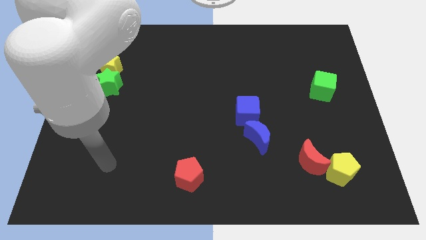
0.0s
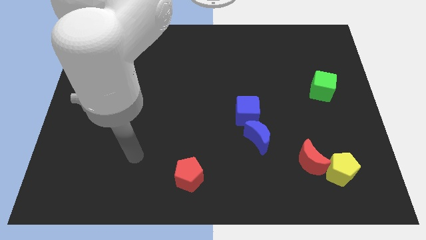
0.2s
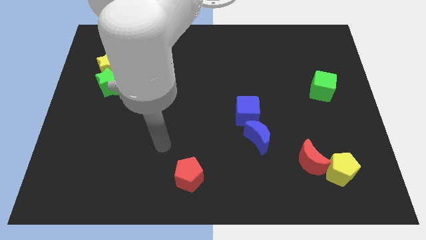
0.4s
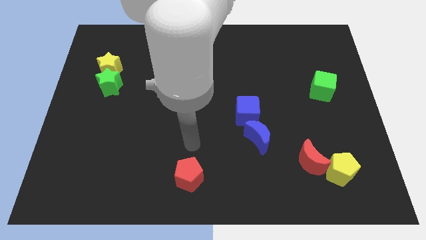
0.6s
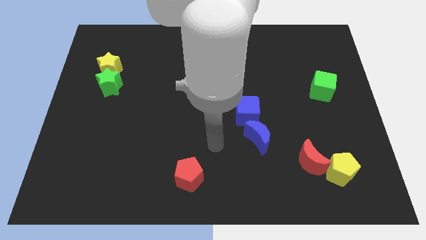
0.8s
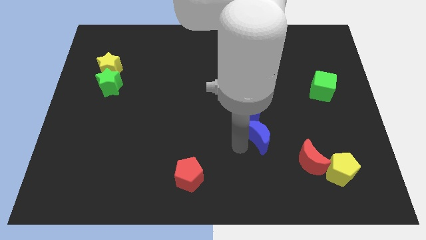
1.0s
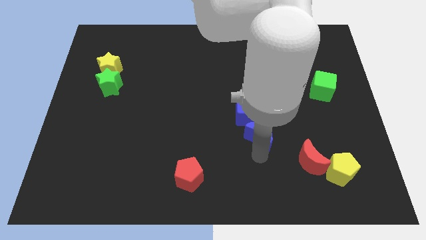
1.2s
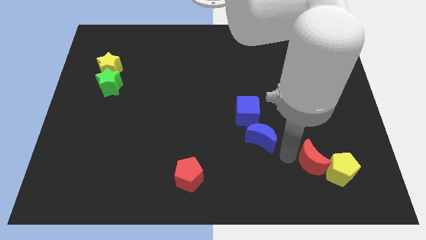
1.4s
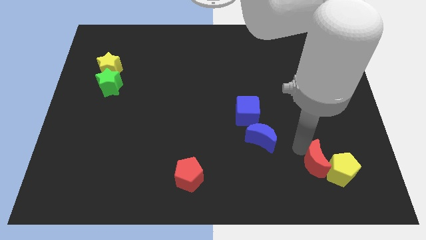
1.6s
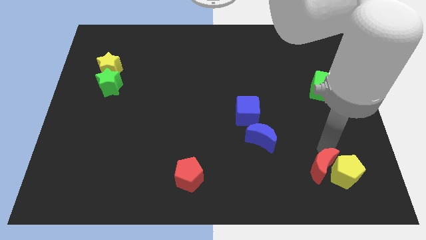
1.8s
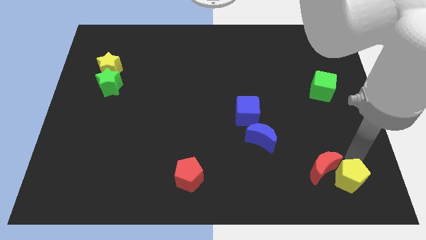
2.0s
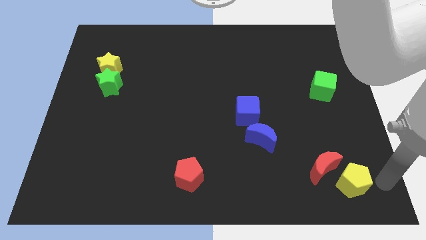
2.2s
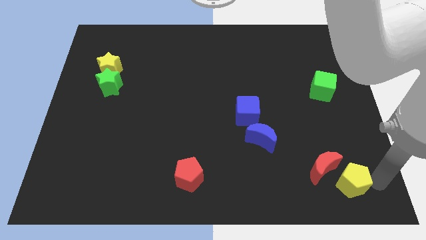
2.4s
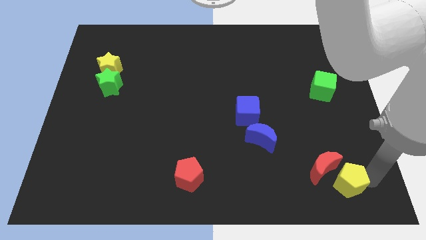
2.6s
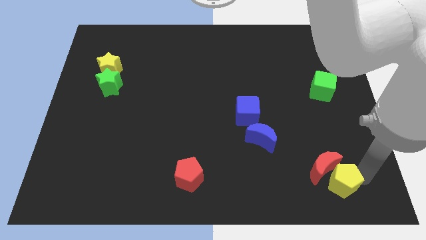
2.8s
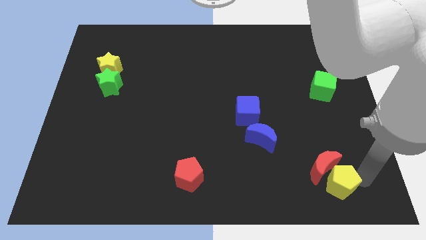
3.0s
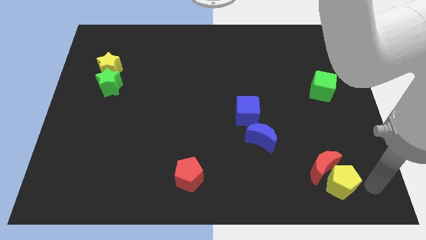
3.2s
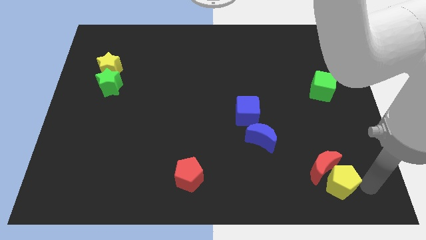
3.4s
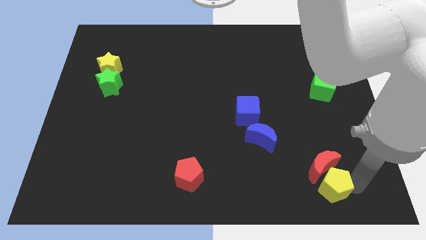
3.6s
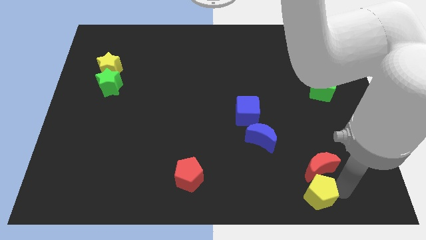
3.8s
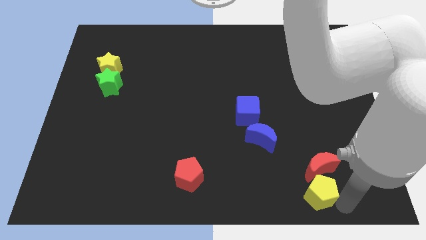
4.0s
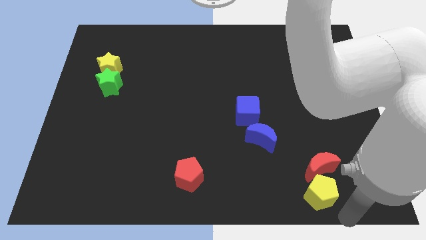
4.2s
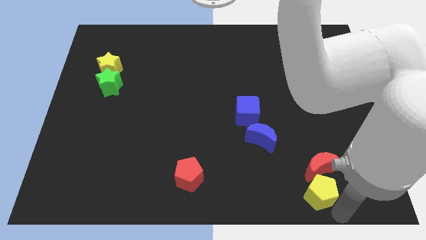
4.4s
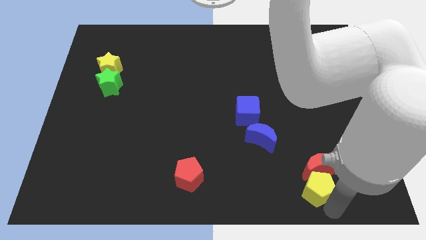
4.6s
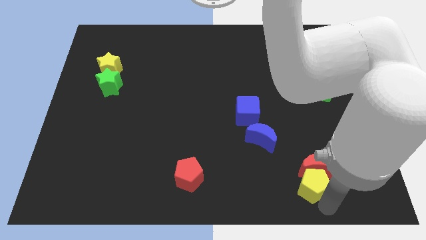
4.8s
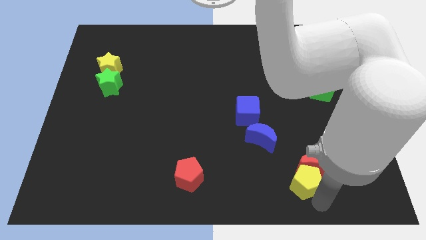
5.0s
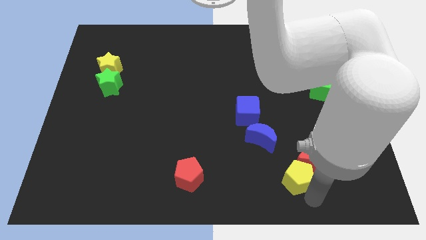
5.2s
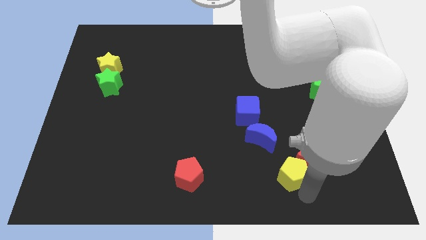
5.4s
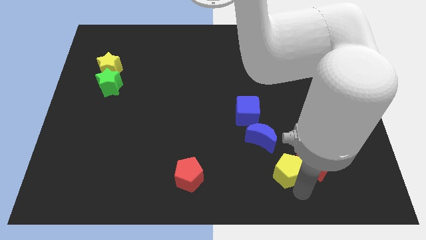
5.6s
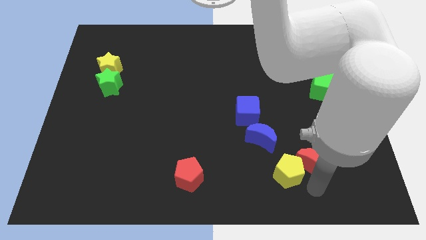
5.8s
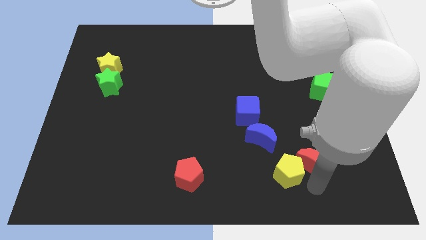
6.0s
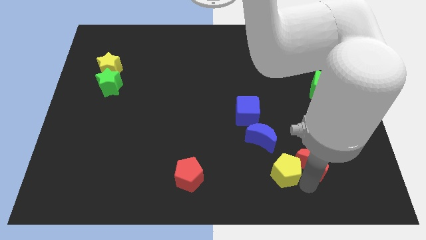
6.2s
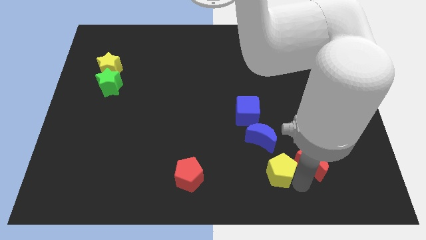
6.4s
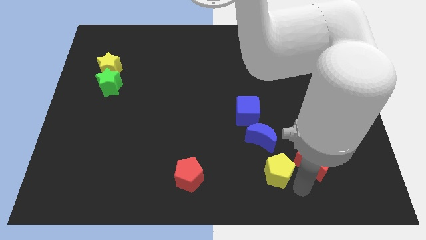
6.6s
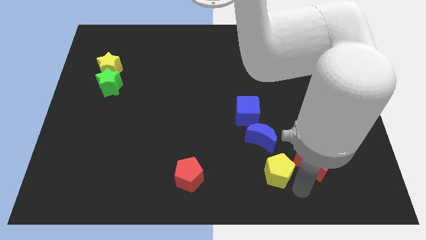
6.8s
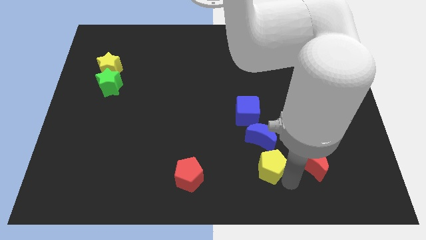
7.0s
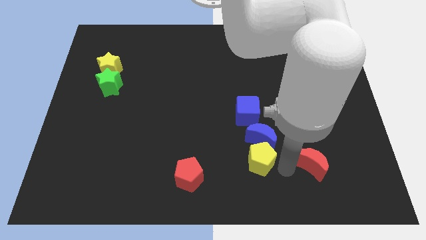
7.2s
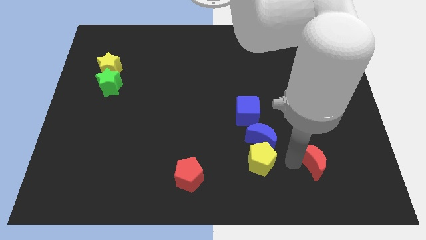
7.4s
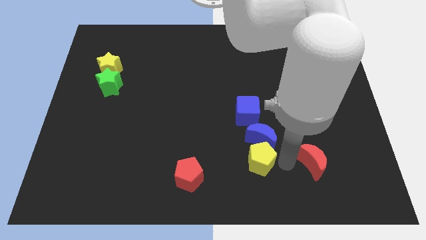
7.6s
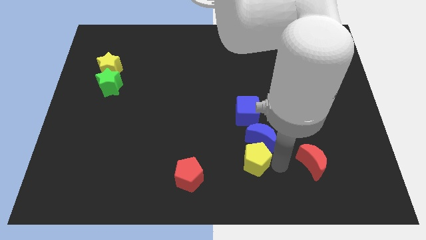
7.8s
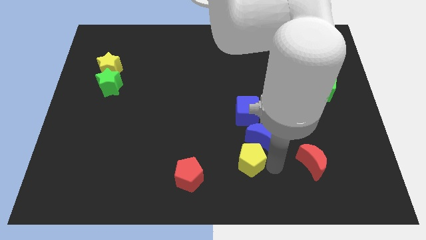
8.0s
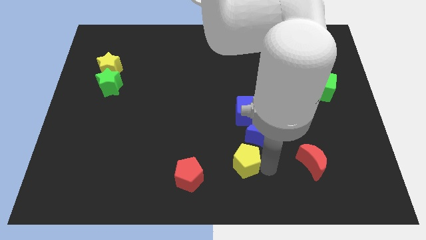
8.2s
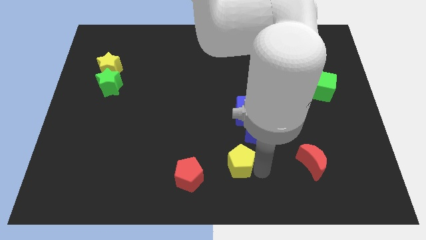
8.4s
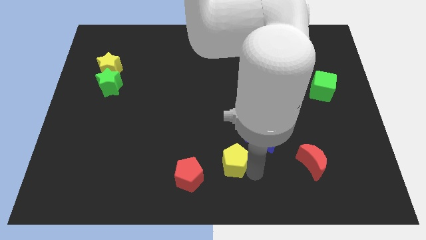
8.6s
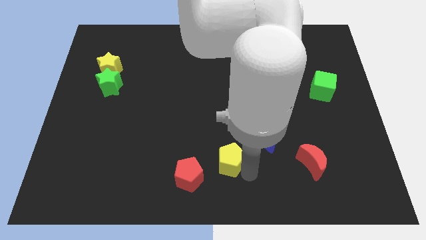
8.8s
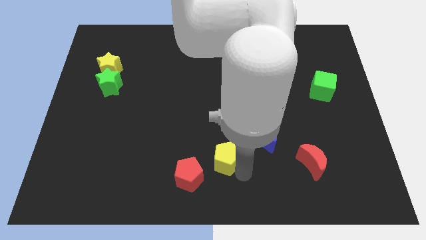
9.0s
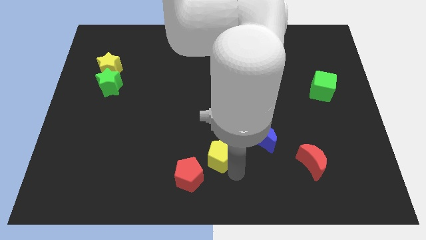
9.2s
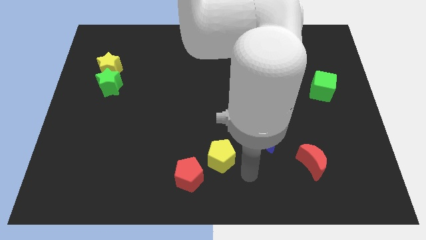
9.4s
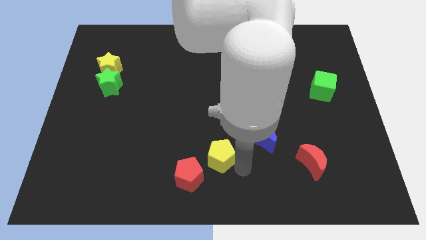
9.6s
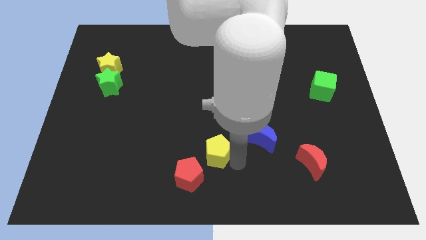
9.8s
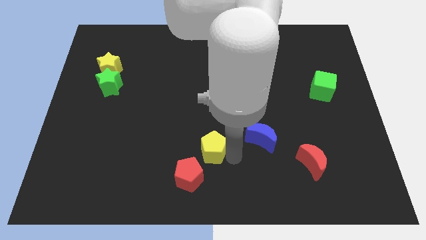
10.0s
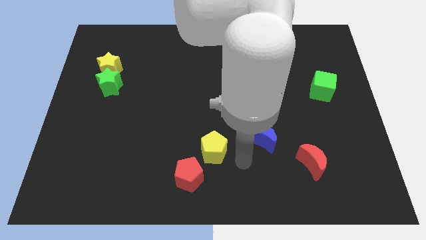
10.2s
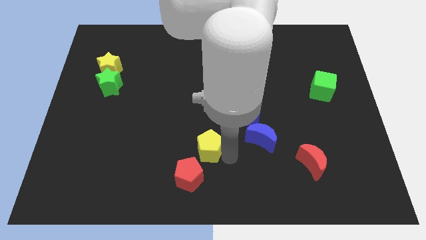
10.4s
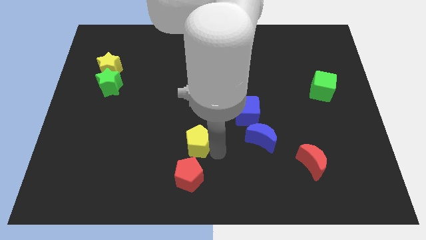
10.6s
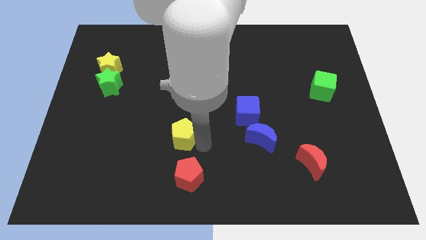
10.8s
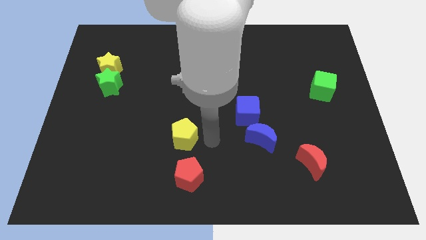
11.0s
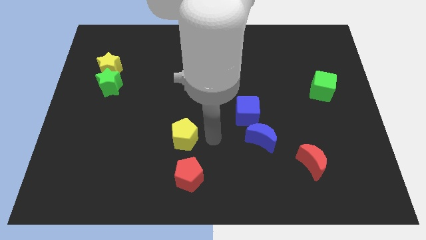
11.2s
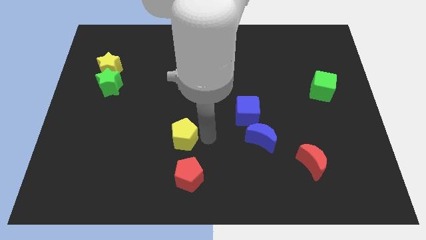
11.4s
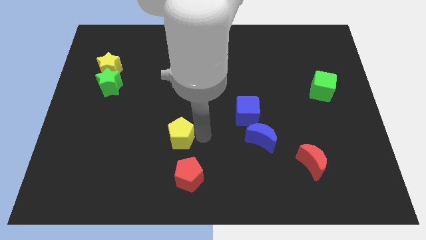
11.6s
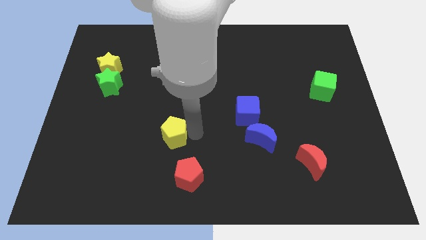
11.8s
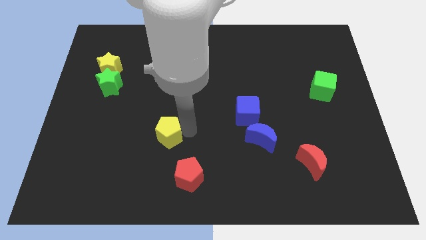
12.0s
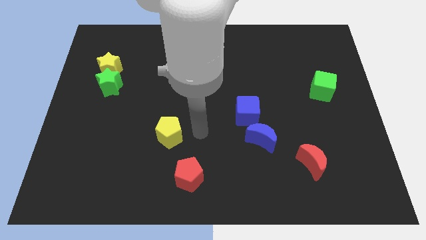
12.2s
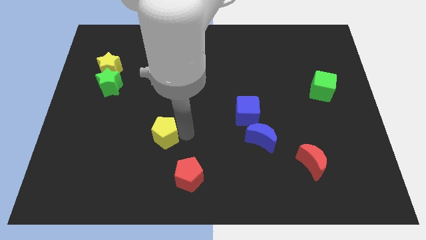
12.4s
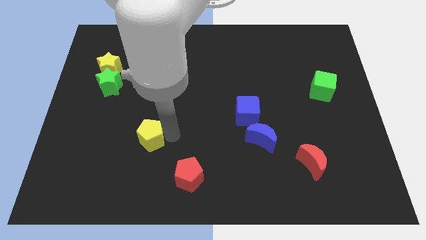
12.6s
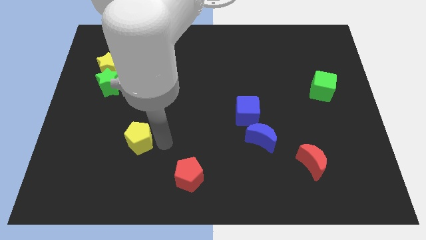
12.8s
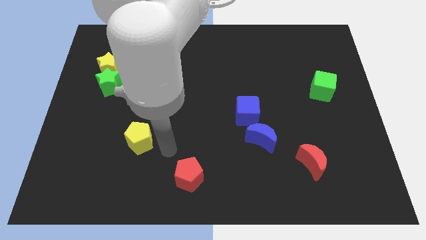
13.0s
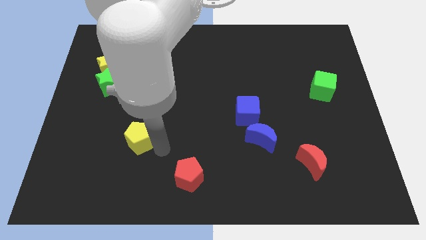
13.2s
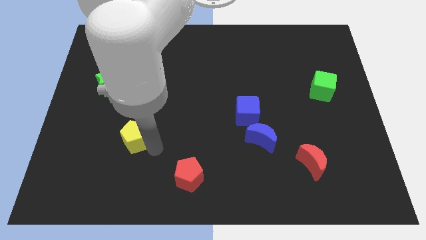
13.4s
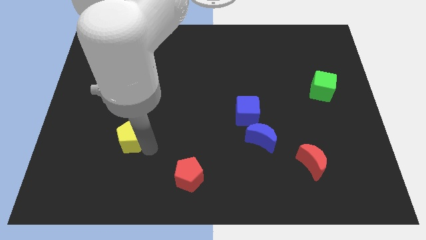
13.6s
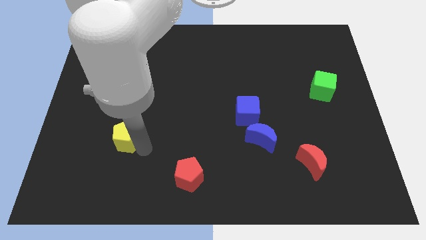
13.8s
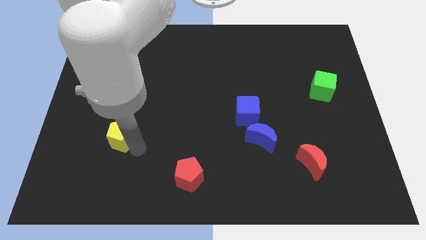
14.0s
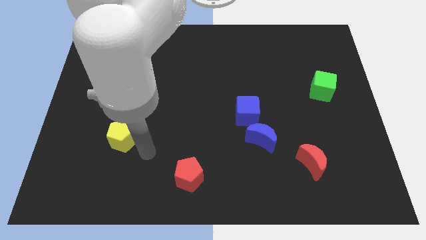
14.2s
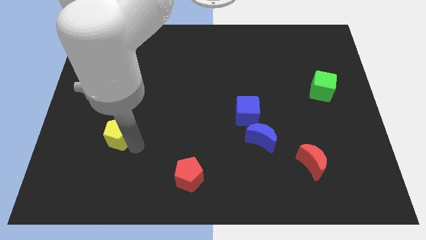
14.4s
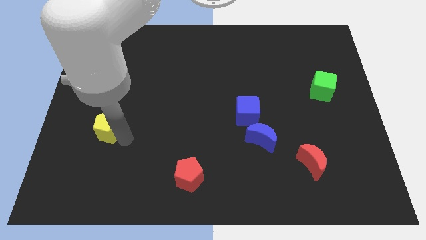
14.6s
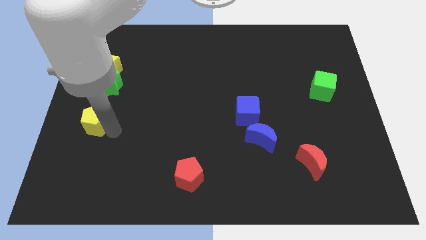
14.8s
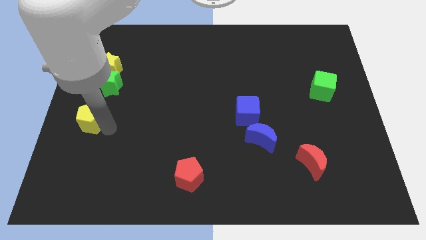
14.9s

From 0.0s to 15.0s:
put the yellow pentagon to the left side of the board
